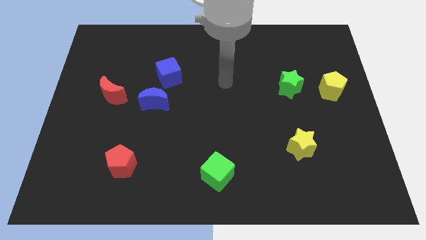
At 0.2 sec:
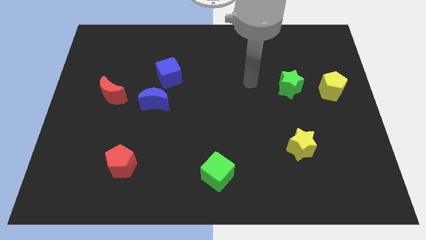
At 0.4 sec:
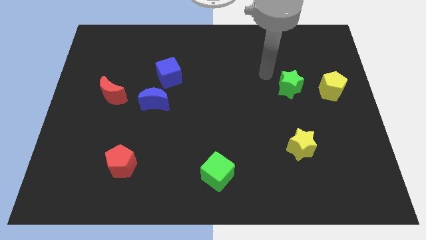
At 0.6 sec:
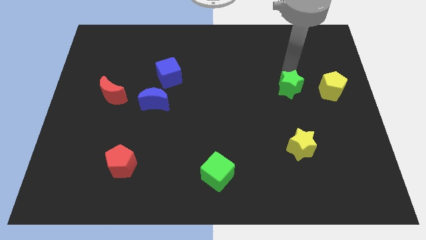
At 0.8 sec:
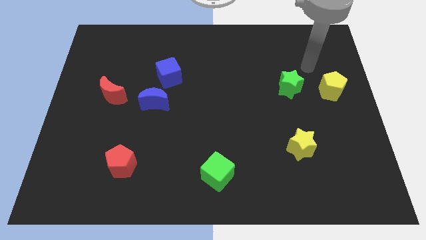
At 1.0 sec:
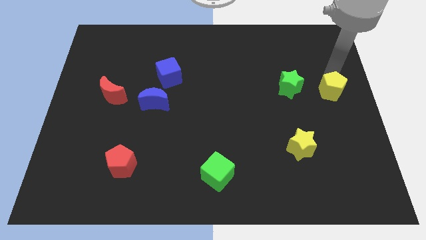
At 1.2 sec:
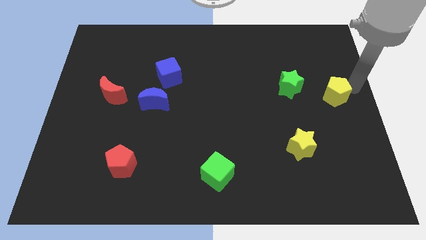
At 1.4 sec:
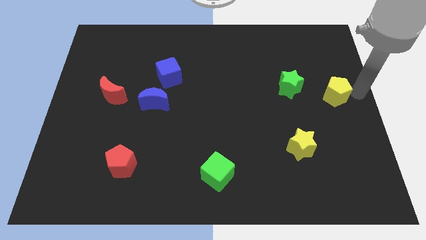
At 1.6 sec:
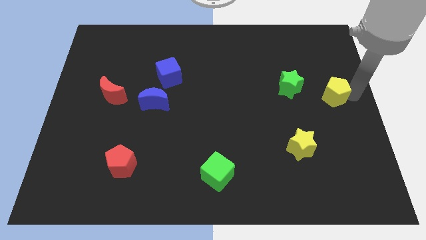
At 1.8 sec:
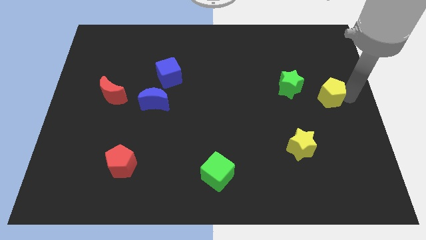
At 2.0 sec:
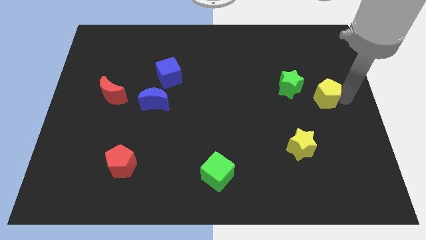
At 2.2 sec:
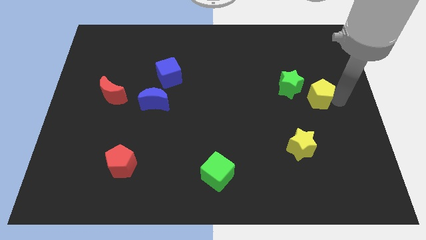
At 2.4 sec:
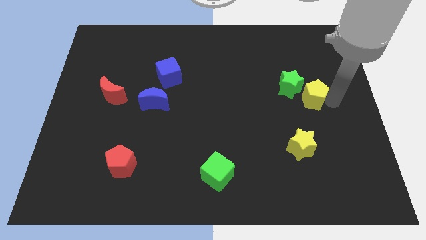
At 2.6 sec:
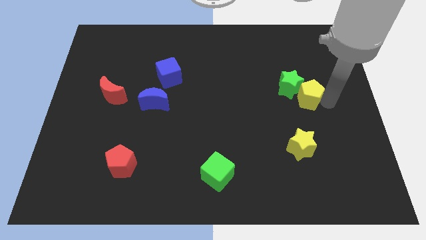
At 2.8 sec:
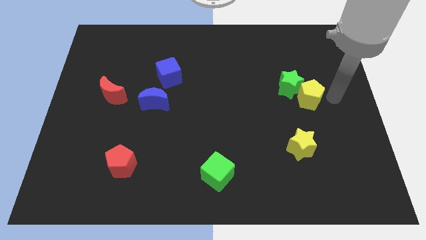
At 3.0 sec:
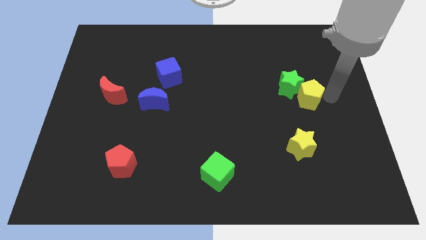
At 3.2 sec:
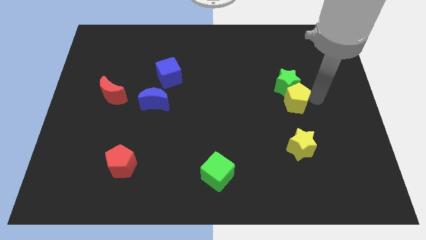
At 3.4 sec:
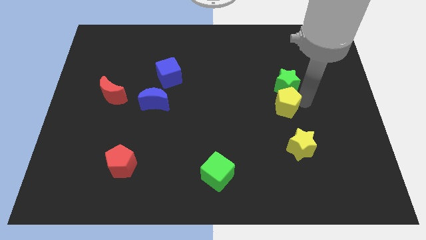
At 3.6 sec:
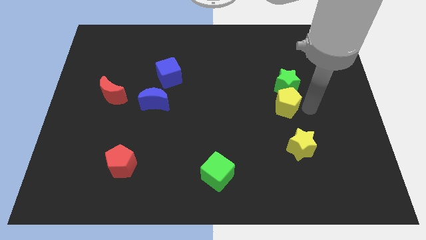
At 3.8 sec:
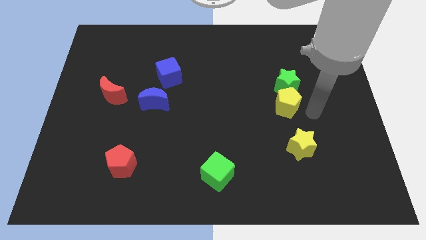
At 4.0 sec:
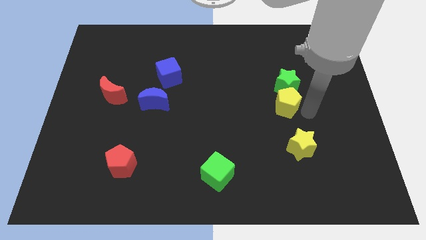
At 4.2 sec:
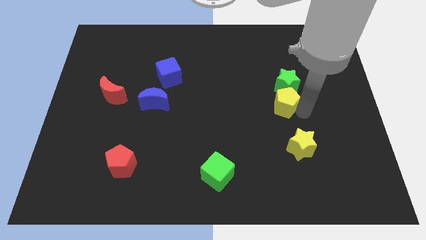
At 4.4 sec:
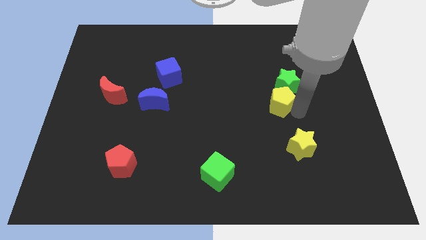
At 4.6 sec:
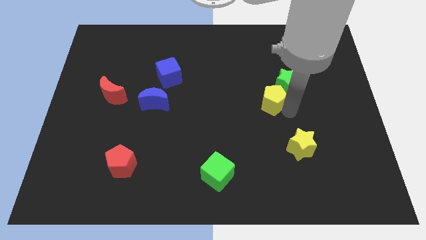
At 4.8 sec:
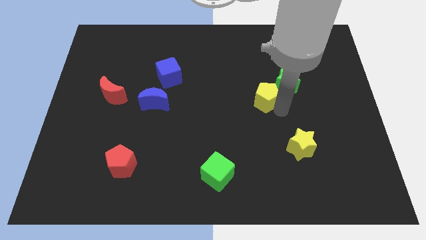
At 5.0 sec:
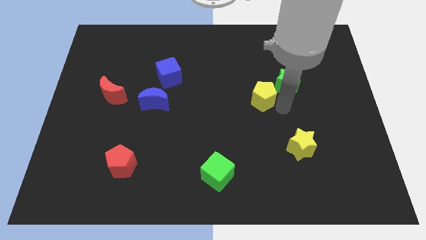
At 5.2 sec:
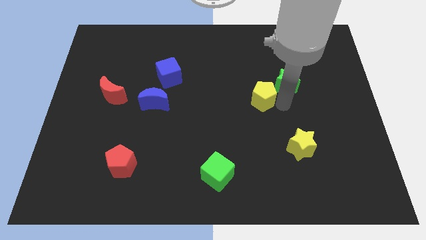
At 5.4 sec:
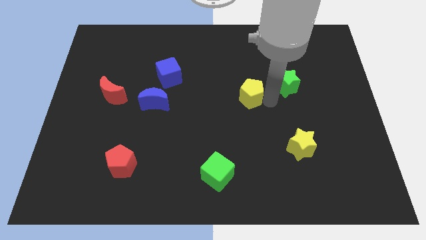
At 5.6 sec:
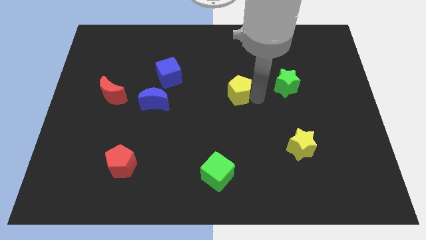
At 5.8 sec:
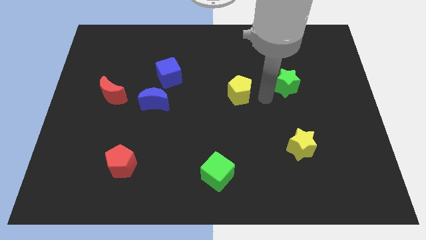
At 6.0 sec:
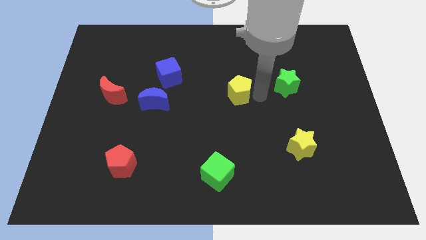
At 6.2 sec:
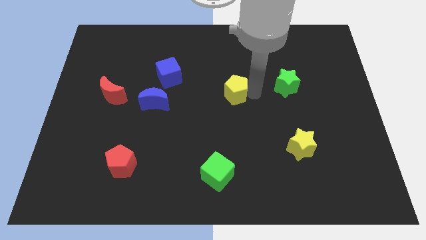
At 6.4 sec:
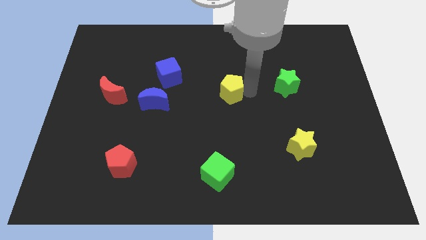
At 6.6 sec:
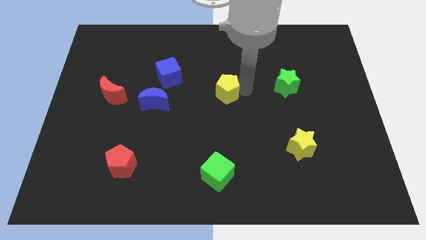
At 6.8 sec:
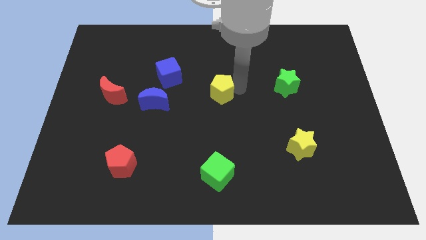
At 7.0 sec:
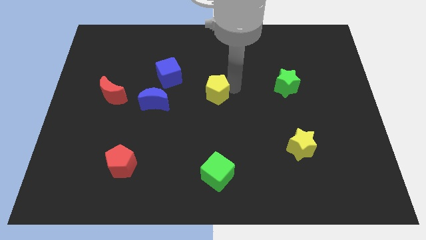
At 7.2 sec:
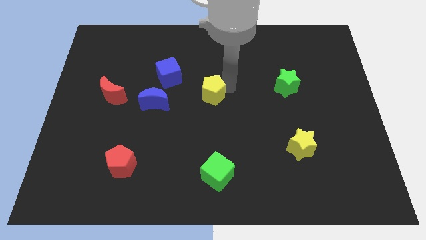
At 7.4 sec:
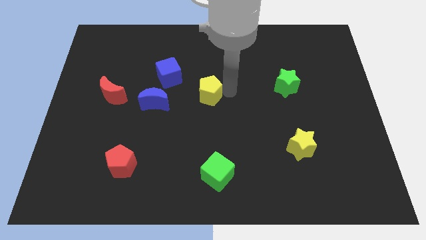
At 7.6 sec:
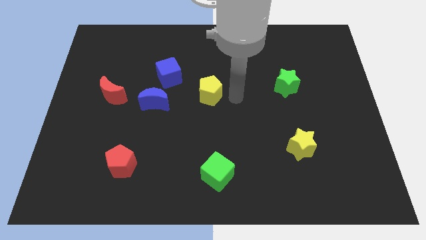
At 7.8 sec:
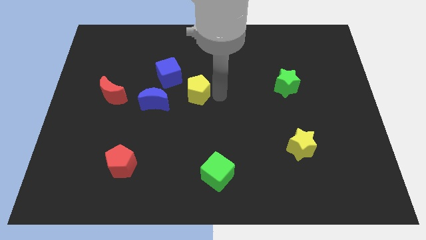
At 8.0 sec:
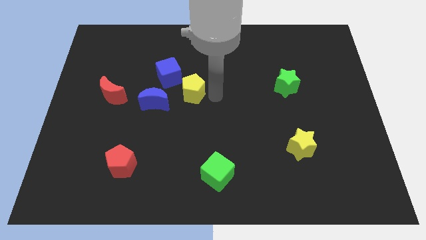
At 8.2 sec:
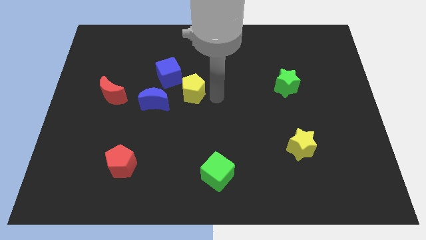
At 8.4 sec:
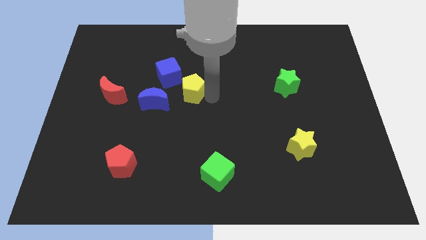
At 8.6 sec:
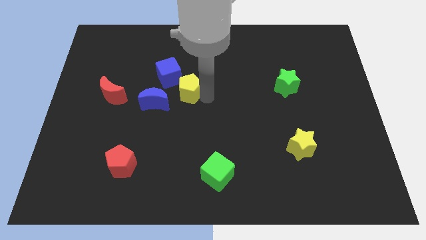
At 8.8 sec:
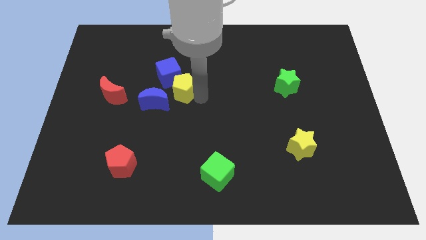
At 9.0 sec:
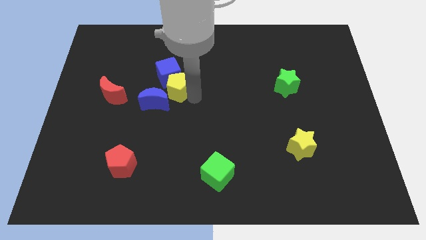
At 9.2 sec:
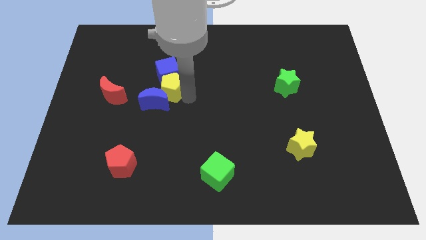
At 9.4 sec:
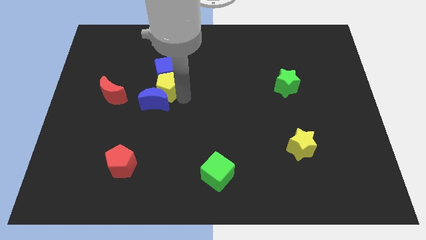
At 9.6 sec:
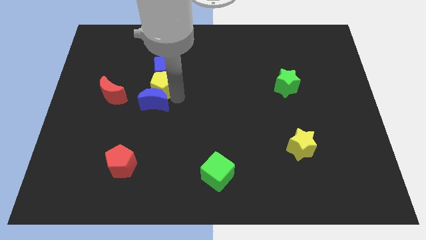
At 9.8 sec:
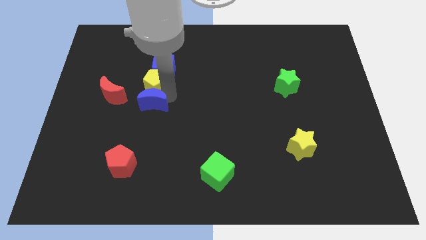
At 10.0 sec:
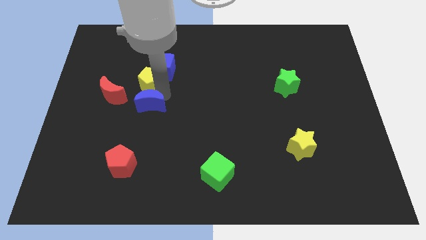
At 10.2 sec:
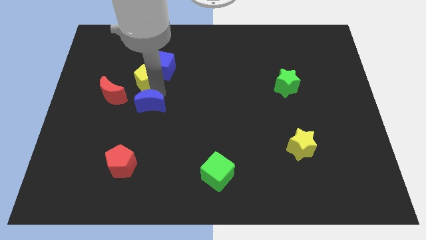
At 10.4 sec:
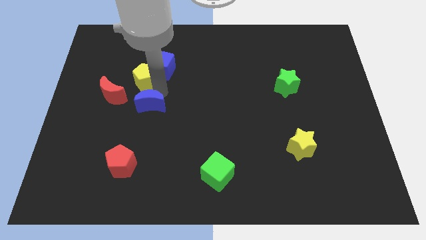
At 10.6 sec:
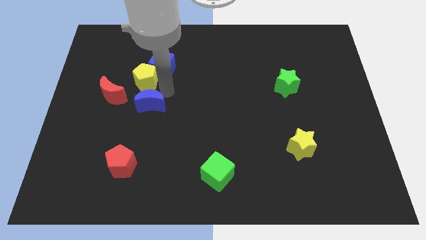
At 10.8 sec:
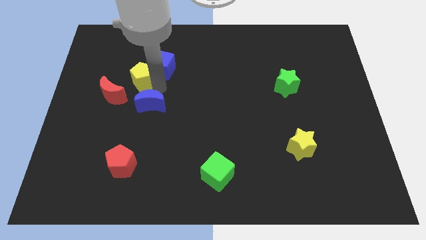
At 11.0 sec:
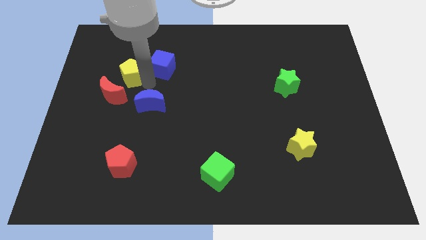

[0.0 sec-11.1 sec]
put the yellow pentagon to the top side of the red moon

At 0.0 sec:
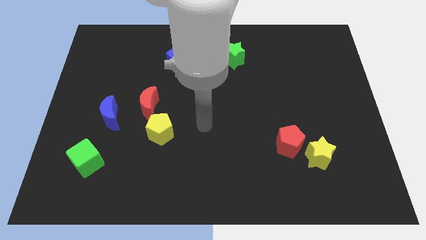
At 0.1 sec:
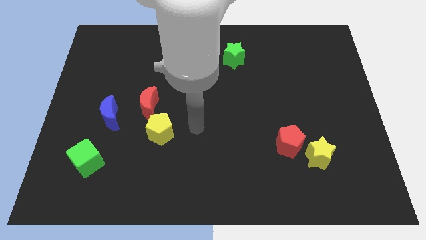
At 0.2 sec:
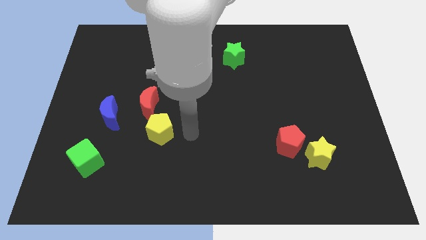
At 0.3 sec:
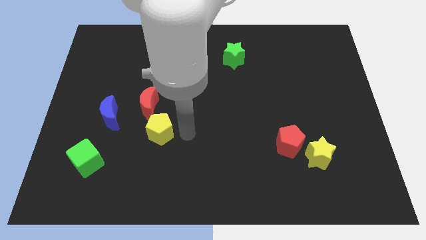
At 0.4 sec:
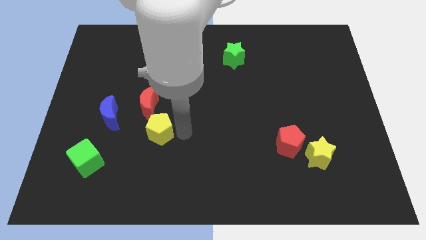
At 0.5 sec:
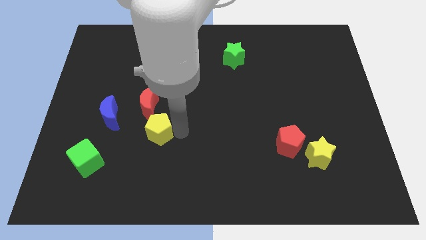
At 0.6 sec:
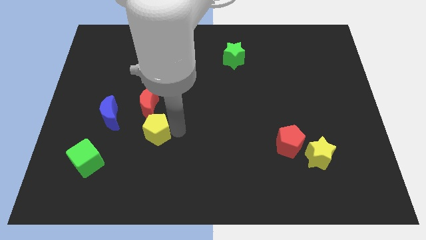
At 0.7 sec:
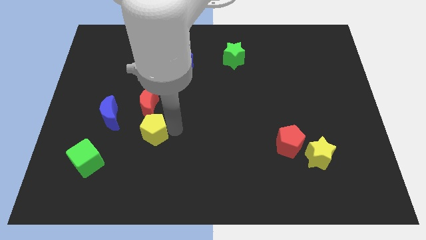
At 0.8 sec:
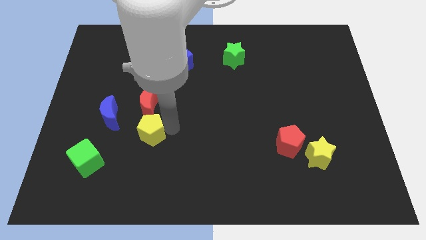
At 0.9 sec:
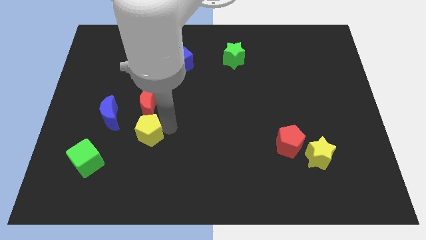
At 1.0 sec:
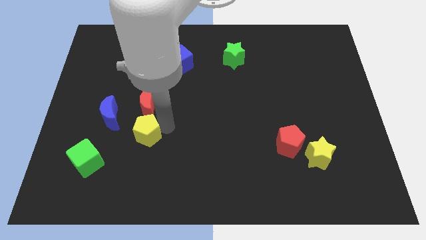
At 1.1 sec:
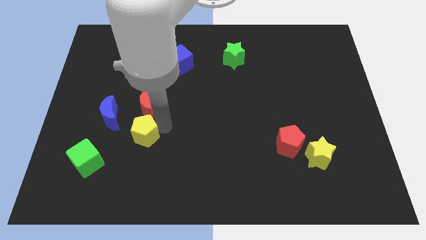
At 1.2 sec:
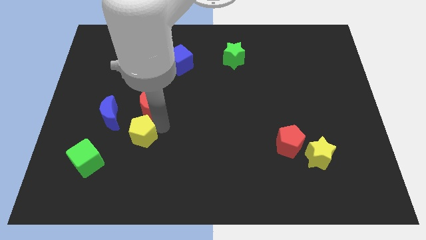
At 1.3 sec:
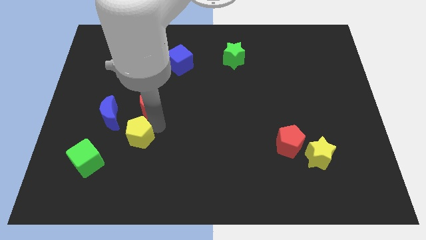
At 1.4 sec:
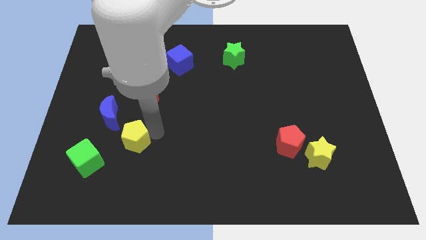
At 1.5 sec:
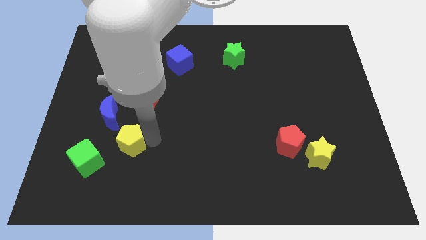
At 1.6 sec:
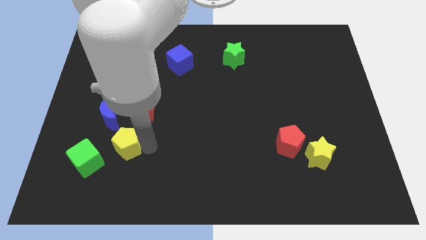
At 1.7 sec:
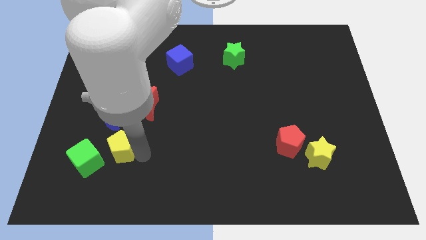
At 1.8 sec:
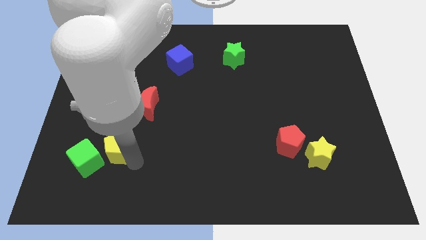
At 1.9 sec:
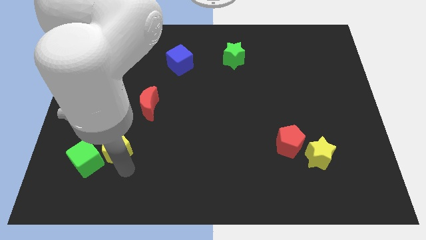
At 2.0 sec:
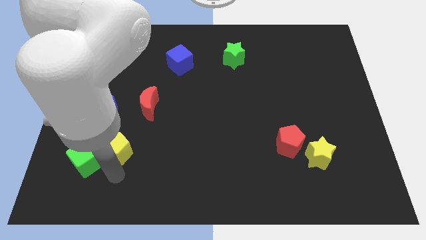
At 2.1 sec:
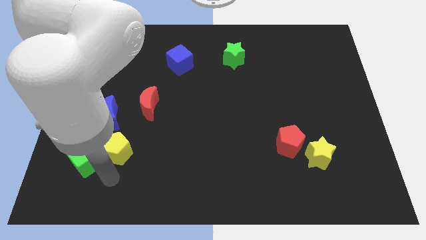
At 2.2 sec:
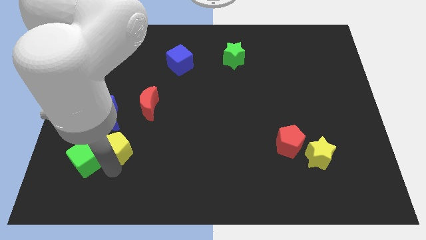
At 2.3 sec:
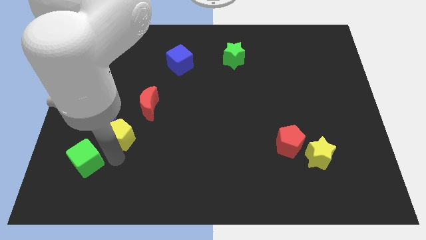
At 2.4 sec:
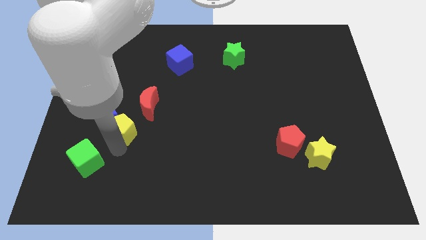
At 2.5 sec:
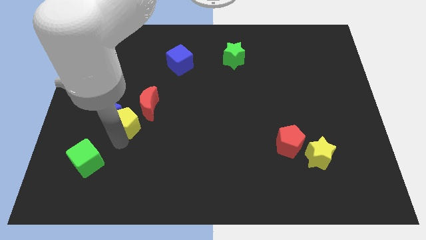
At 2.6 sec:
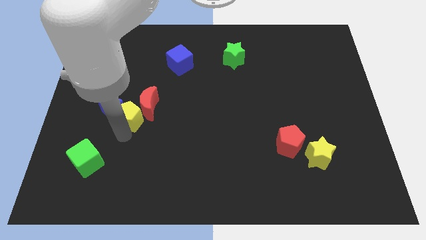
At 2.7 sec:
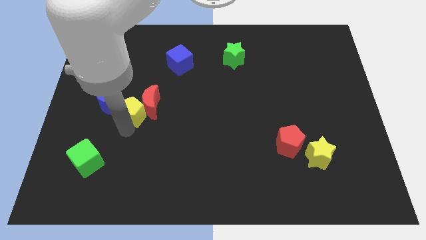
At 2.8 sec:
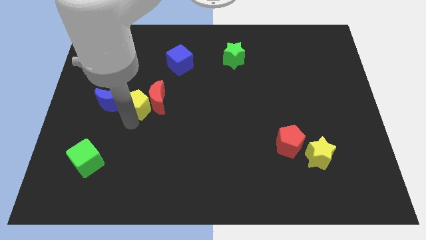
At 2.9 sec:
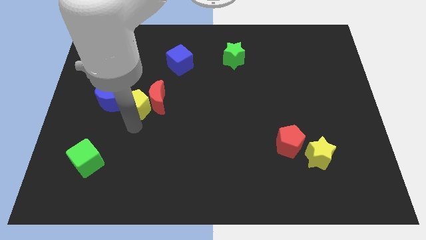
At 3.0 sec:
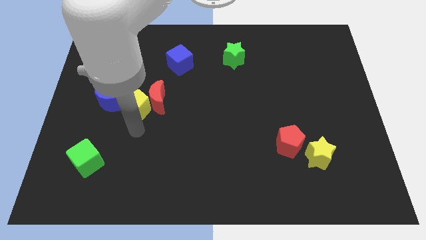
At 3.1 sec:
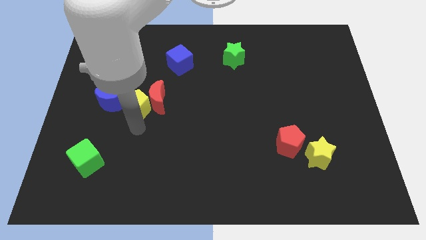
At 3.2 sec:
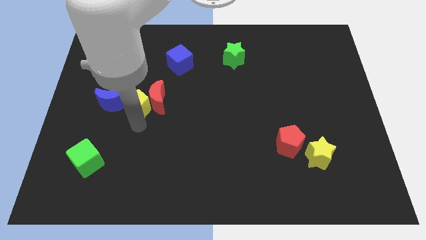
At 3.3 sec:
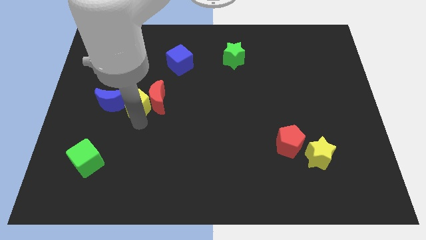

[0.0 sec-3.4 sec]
slide the yellow pentagon to the top left side of the red moon
